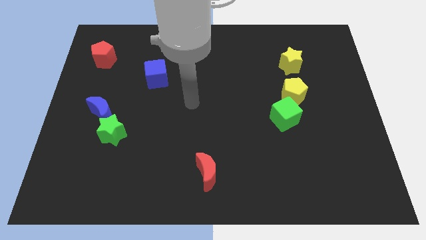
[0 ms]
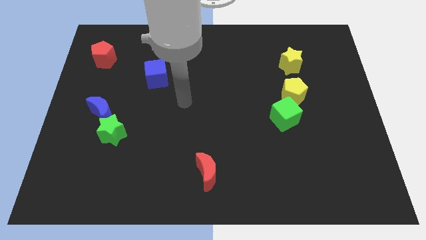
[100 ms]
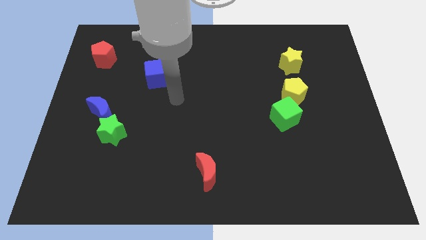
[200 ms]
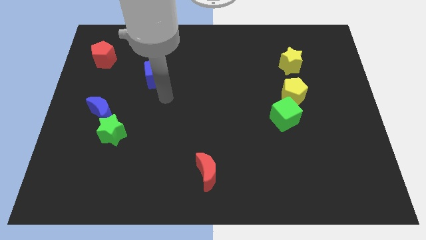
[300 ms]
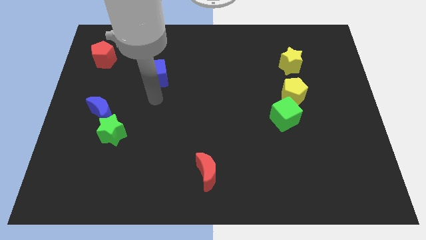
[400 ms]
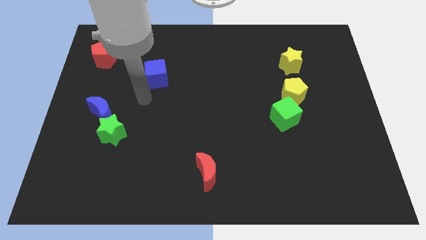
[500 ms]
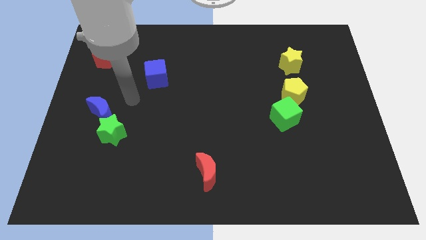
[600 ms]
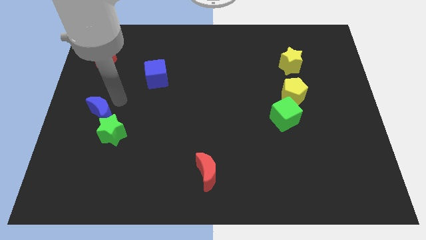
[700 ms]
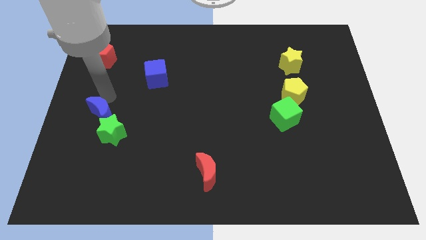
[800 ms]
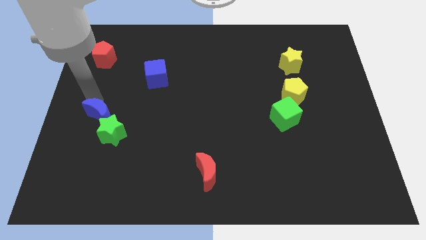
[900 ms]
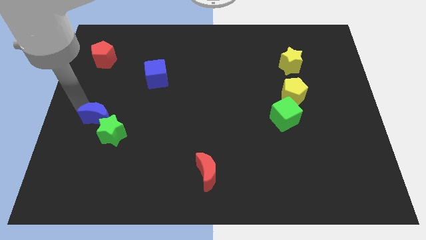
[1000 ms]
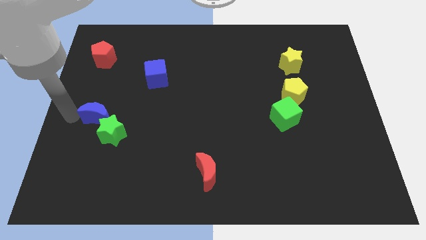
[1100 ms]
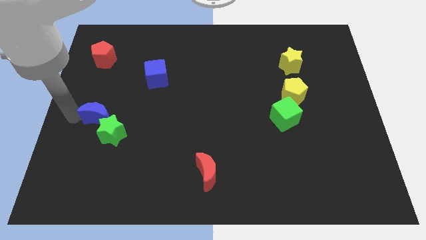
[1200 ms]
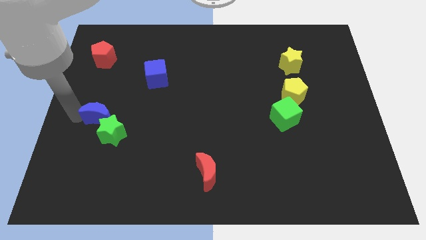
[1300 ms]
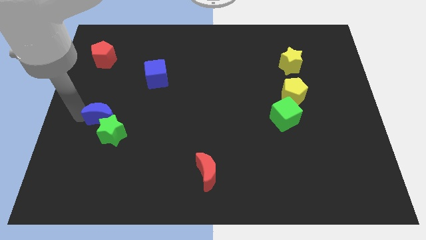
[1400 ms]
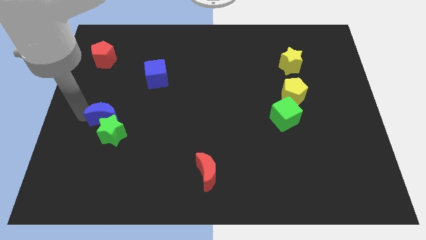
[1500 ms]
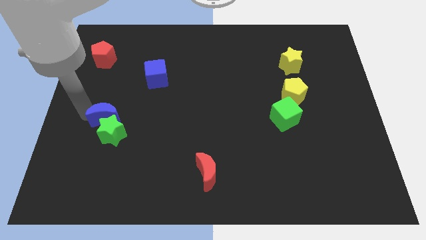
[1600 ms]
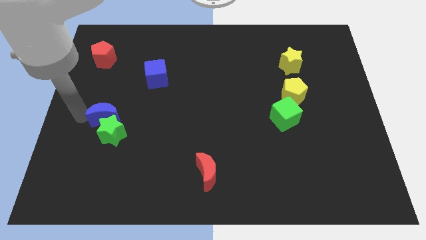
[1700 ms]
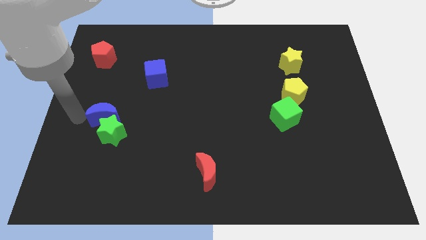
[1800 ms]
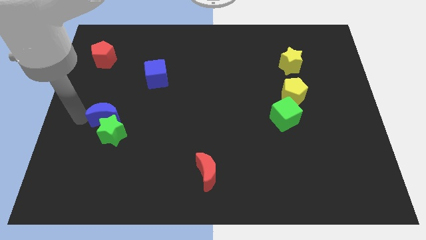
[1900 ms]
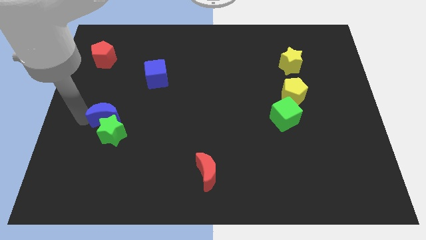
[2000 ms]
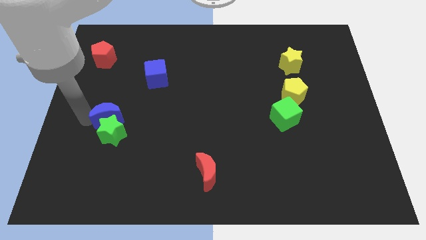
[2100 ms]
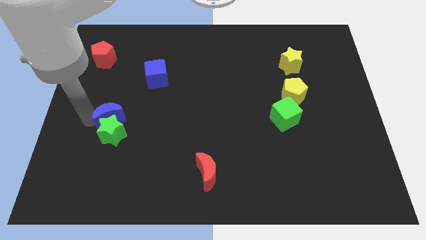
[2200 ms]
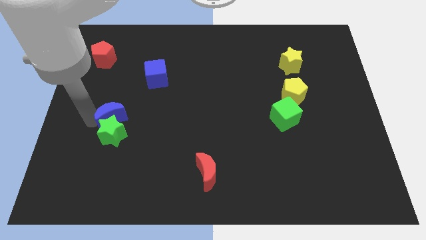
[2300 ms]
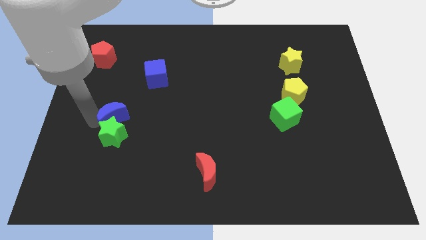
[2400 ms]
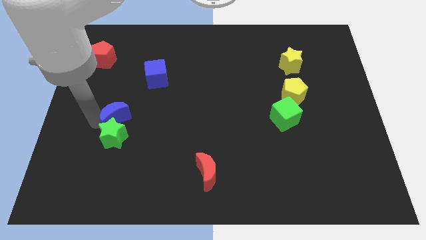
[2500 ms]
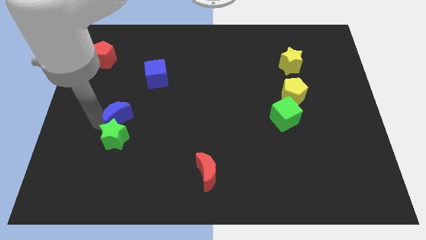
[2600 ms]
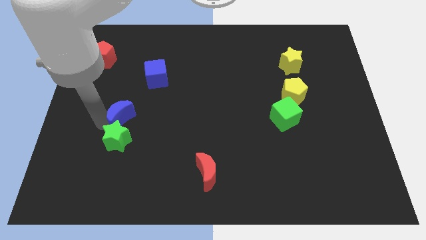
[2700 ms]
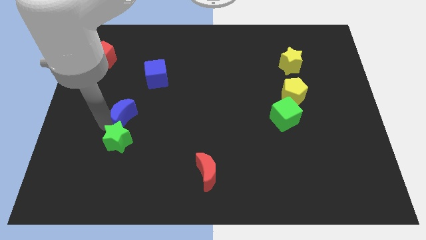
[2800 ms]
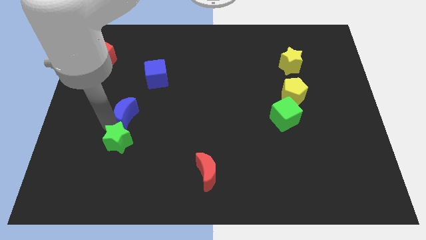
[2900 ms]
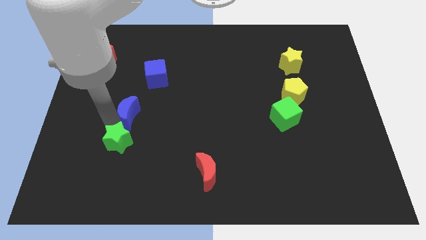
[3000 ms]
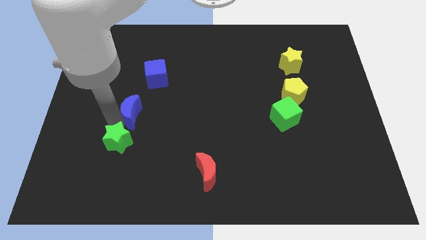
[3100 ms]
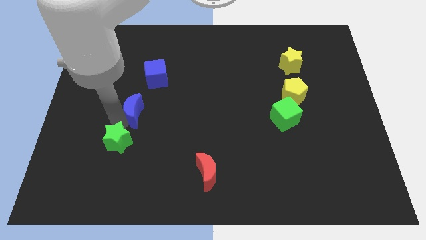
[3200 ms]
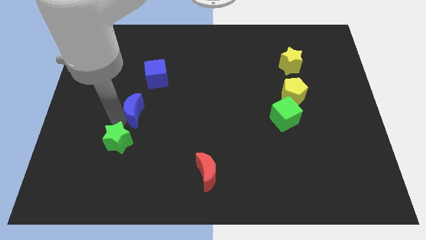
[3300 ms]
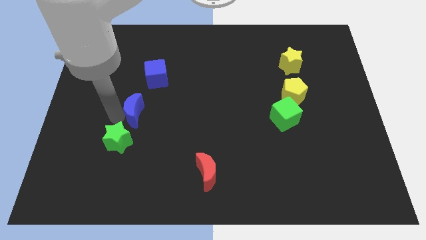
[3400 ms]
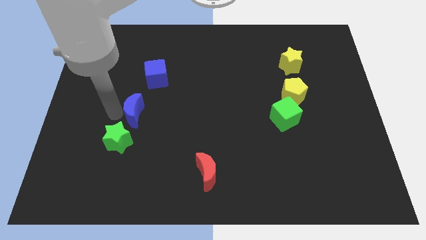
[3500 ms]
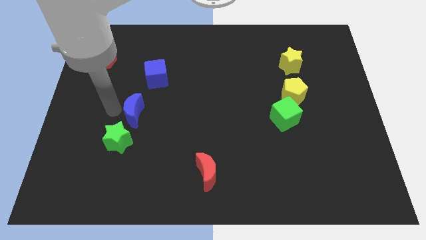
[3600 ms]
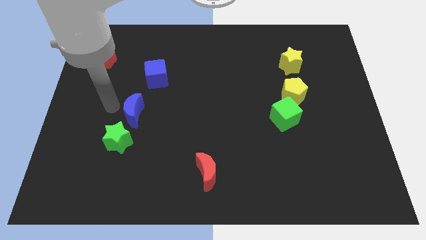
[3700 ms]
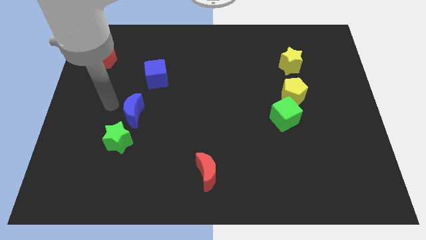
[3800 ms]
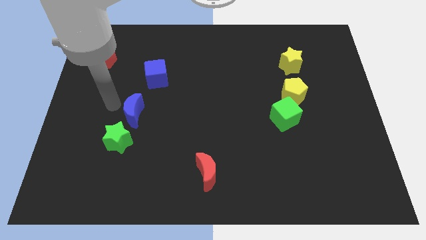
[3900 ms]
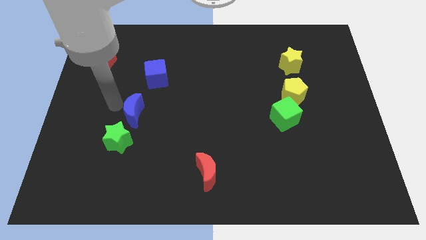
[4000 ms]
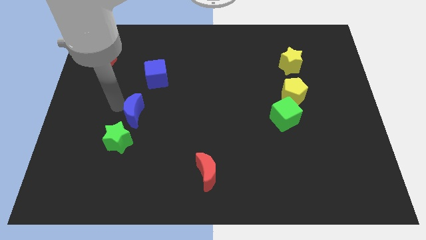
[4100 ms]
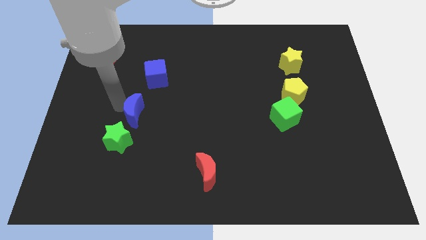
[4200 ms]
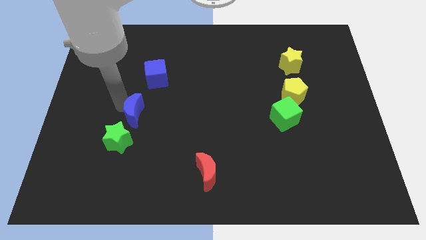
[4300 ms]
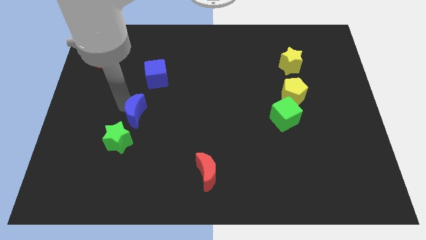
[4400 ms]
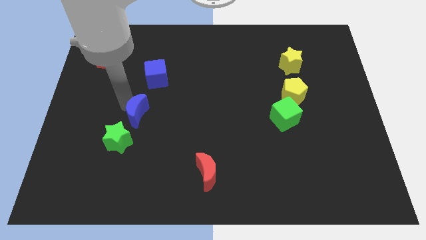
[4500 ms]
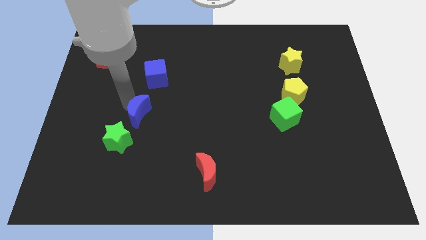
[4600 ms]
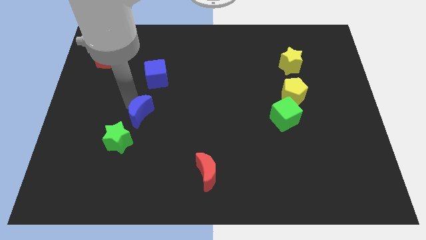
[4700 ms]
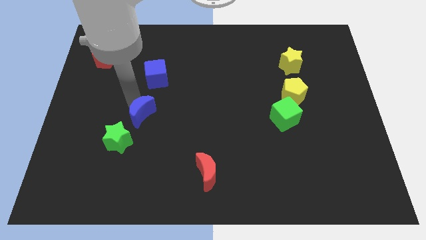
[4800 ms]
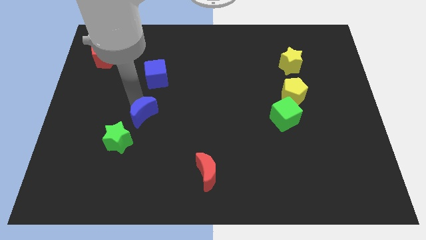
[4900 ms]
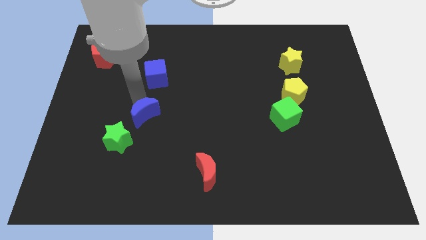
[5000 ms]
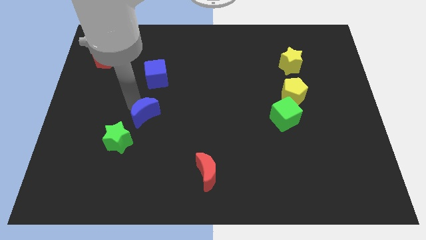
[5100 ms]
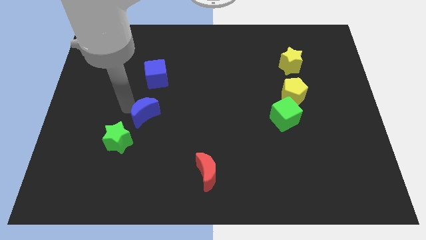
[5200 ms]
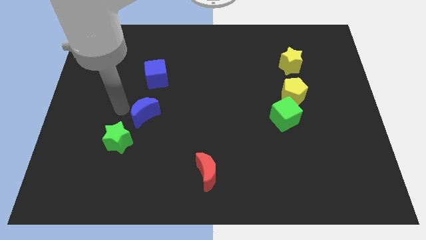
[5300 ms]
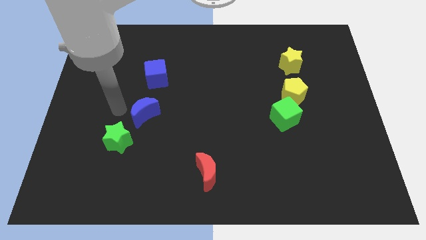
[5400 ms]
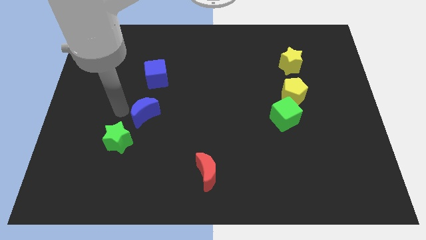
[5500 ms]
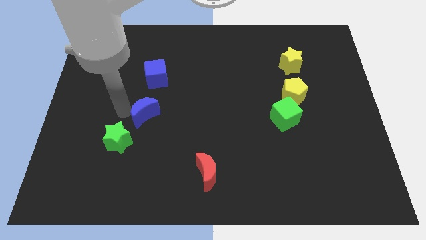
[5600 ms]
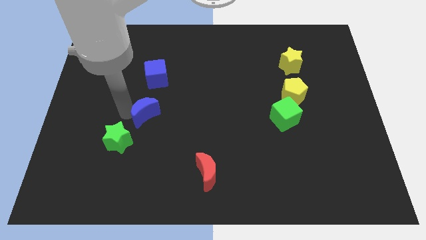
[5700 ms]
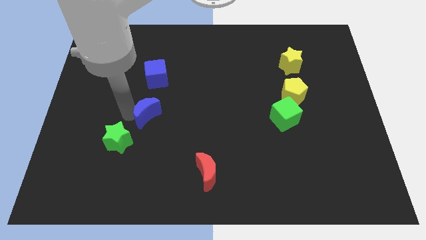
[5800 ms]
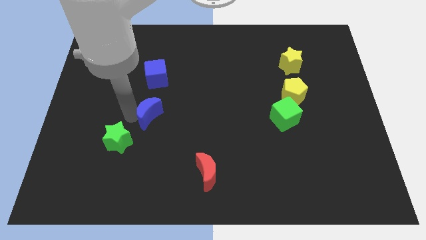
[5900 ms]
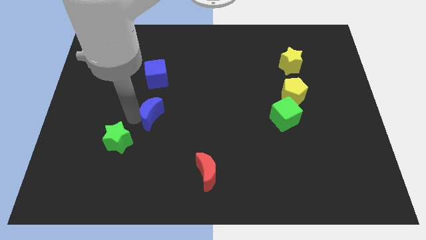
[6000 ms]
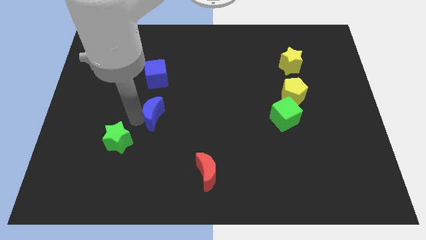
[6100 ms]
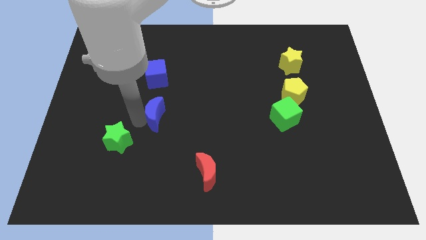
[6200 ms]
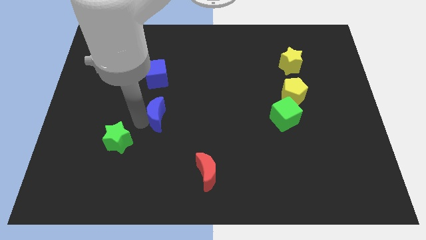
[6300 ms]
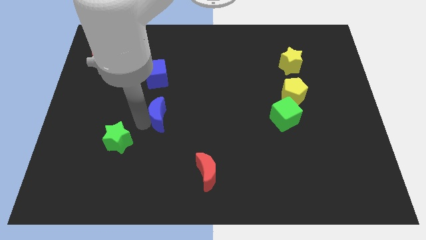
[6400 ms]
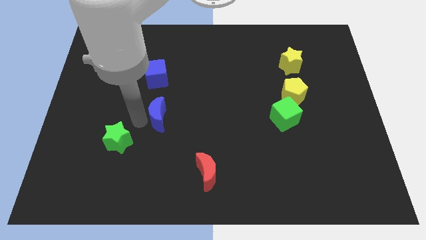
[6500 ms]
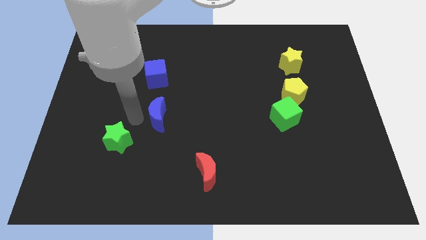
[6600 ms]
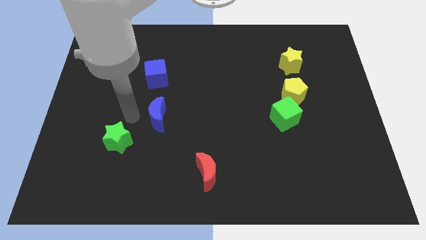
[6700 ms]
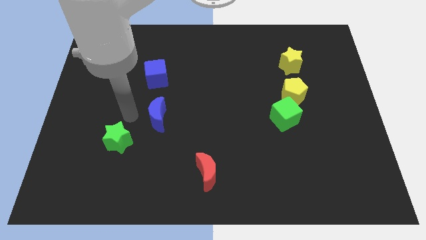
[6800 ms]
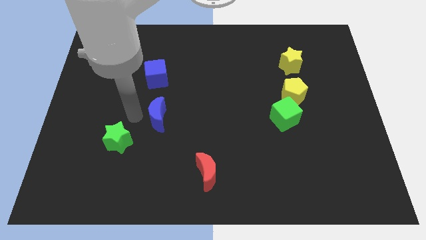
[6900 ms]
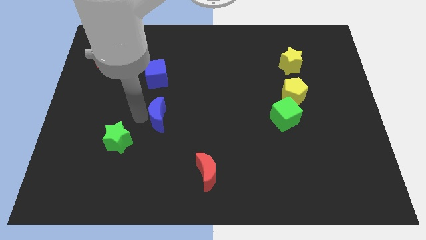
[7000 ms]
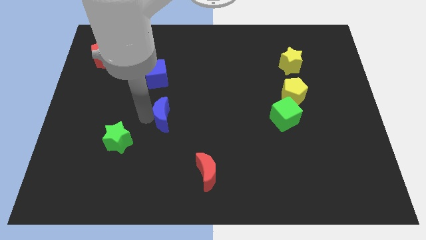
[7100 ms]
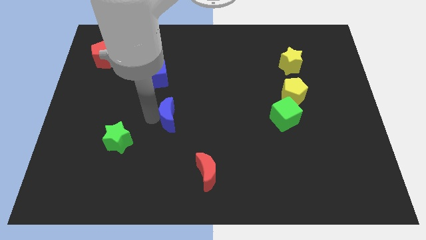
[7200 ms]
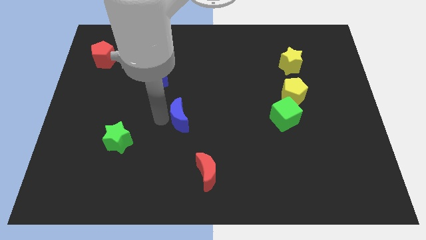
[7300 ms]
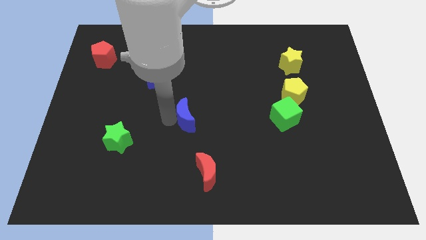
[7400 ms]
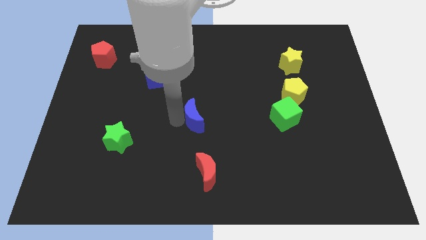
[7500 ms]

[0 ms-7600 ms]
push the blue moon to the right

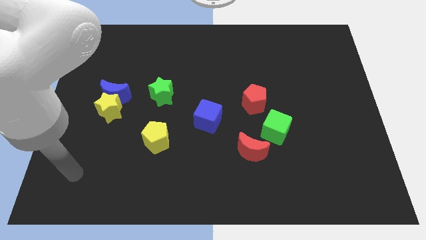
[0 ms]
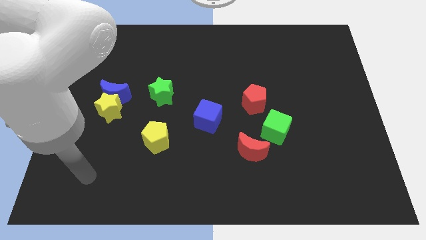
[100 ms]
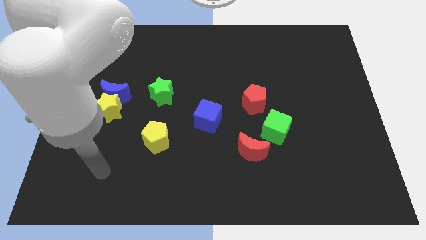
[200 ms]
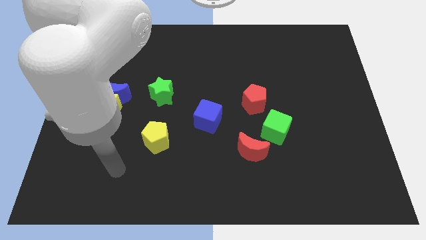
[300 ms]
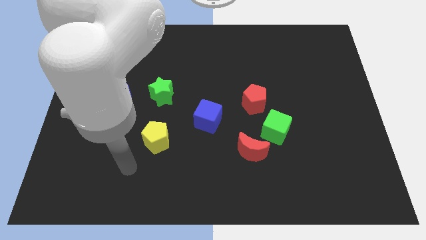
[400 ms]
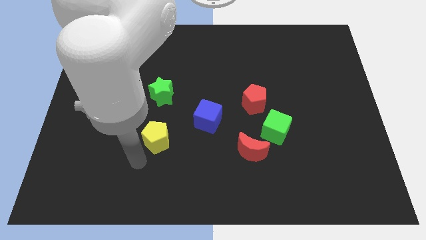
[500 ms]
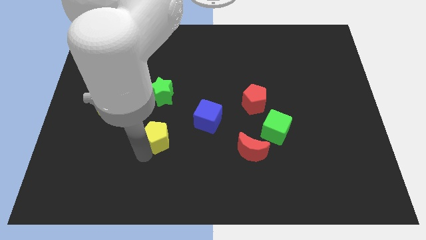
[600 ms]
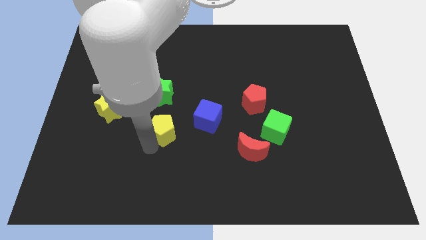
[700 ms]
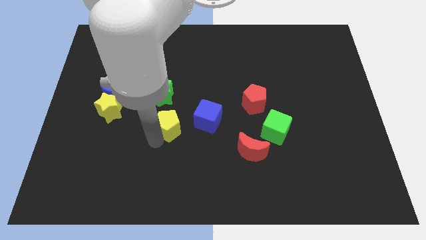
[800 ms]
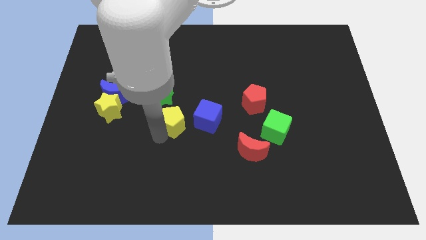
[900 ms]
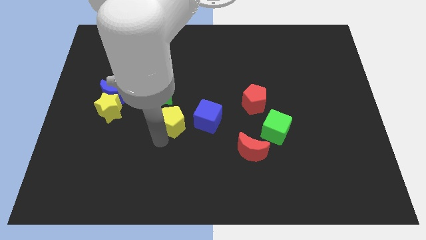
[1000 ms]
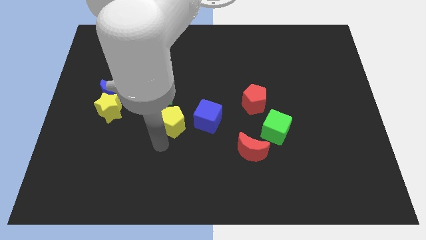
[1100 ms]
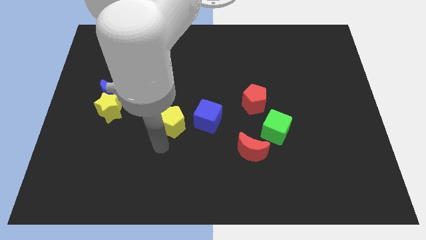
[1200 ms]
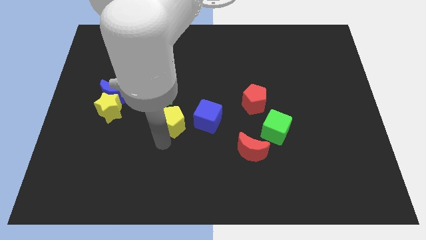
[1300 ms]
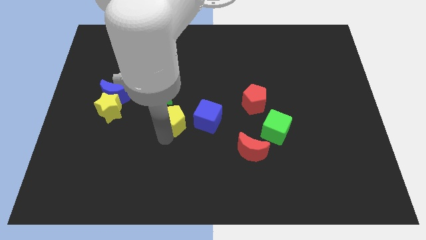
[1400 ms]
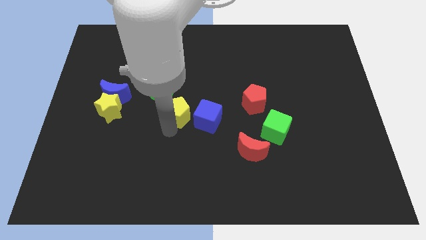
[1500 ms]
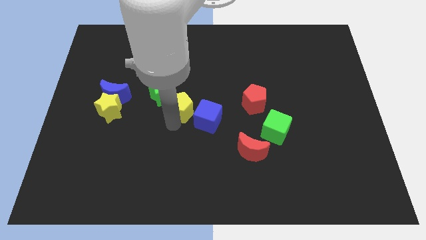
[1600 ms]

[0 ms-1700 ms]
slide the yellow pentagon up a little
